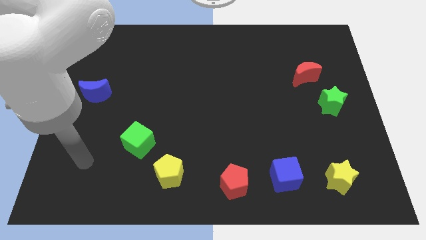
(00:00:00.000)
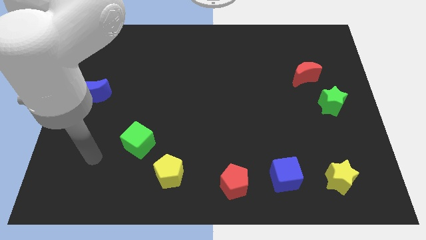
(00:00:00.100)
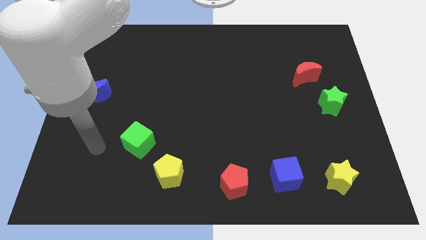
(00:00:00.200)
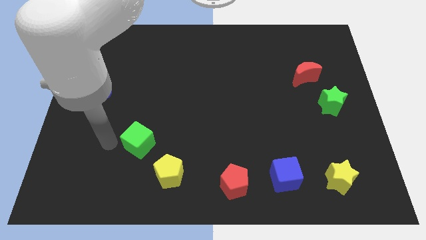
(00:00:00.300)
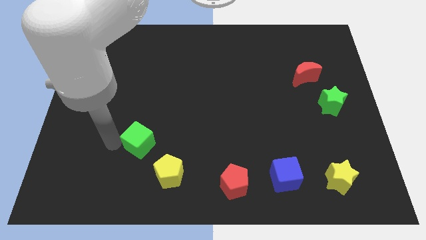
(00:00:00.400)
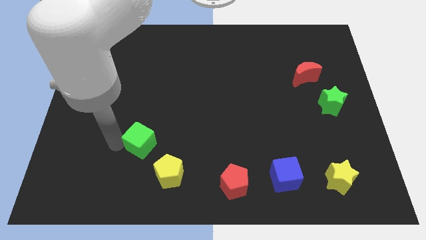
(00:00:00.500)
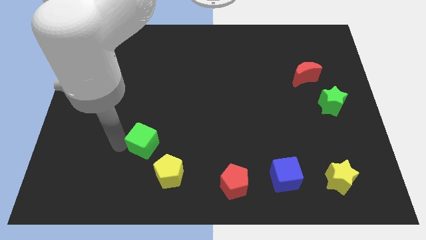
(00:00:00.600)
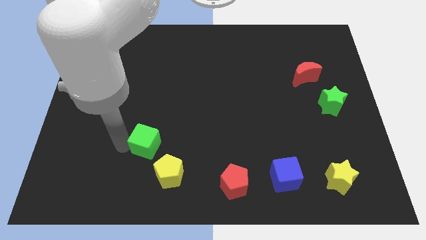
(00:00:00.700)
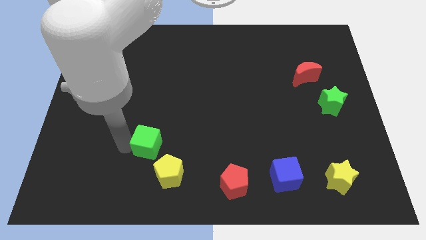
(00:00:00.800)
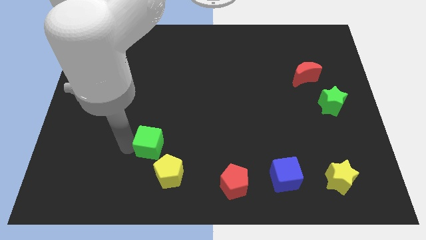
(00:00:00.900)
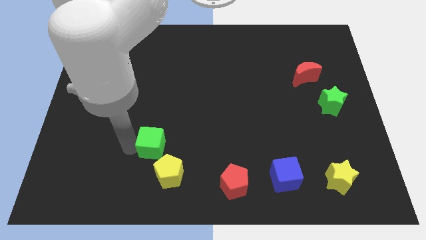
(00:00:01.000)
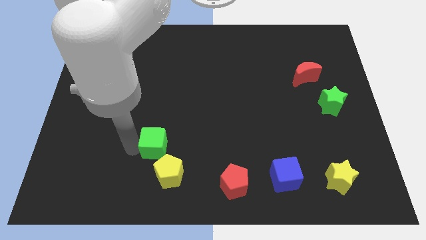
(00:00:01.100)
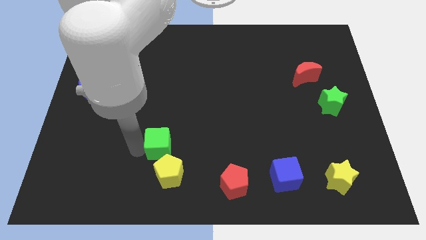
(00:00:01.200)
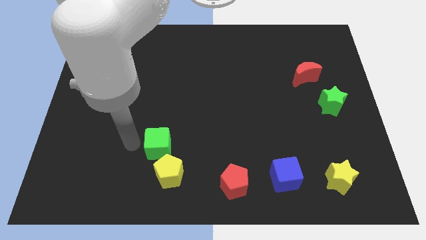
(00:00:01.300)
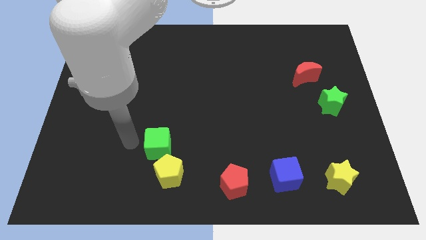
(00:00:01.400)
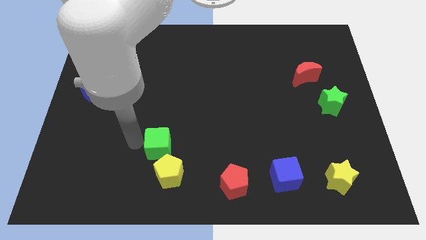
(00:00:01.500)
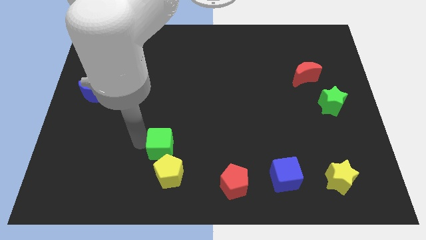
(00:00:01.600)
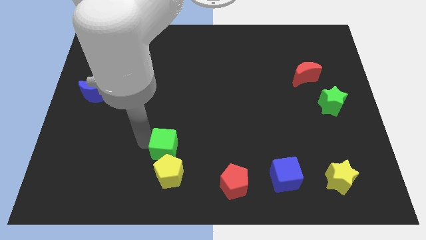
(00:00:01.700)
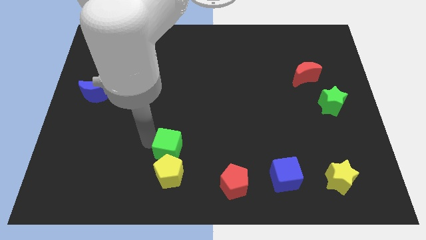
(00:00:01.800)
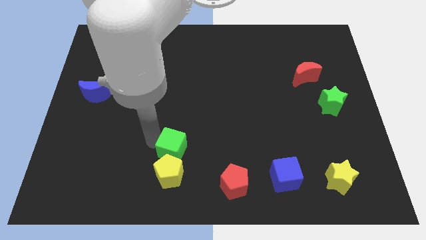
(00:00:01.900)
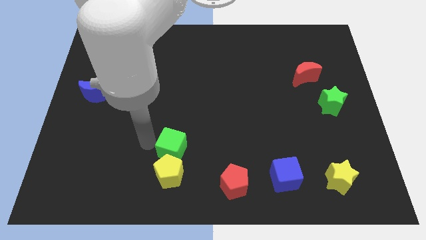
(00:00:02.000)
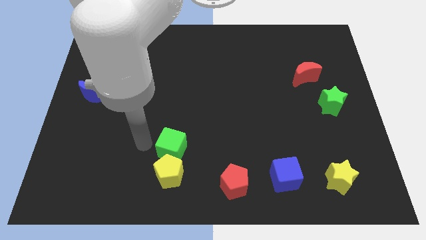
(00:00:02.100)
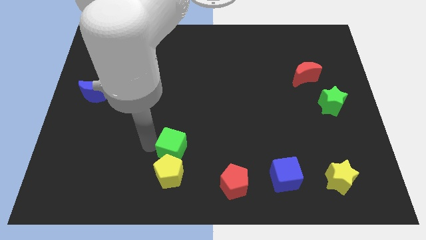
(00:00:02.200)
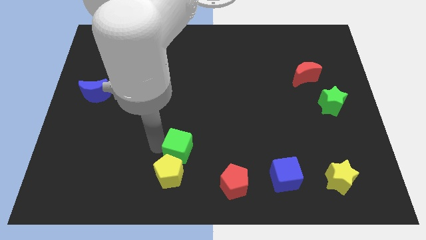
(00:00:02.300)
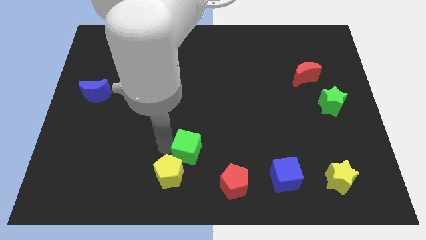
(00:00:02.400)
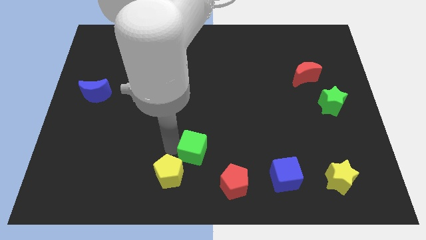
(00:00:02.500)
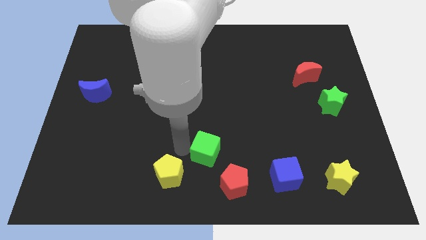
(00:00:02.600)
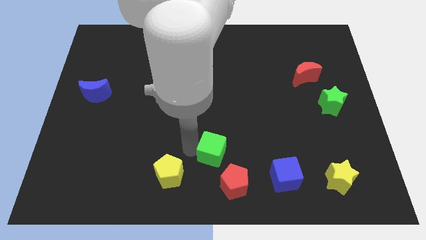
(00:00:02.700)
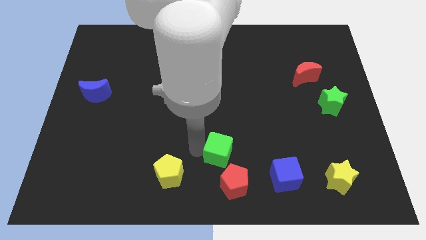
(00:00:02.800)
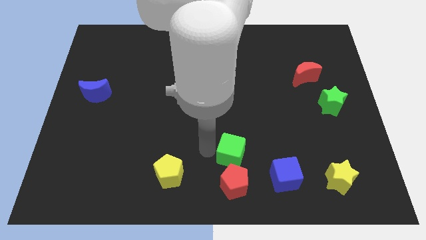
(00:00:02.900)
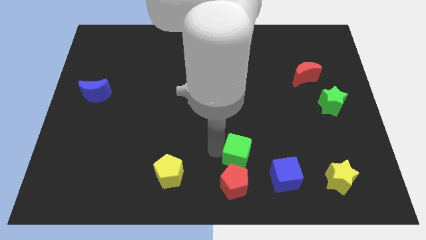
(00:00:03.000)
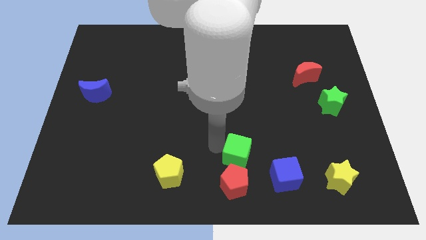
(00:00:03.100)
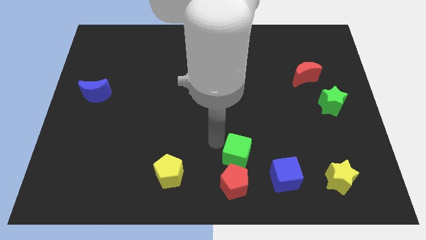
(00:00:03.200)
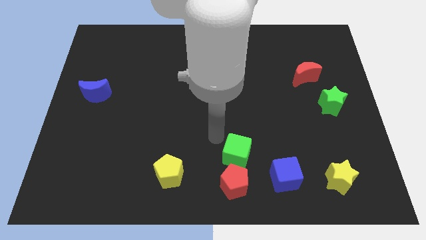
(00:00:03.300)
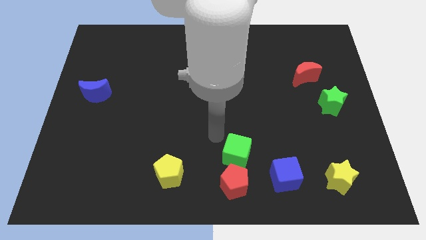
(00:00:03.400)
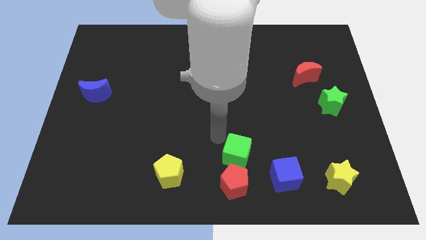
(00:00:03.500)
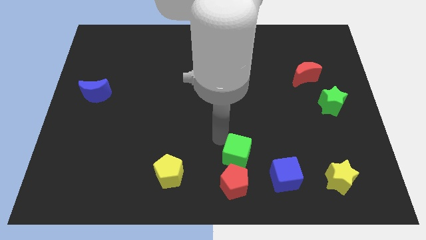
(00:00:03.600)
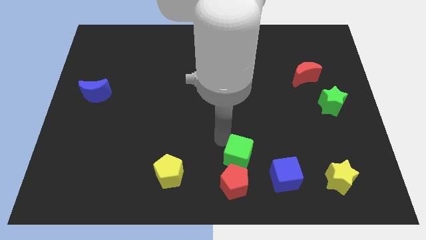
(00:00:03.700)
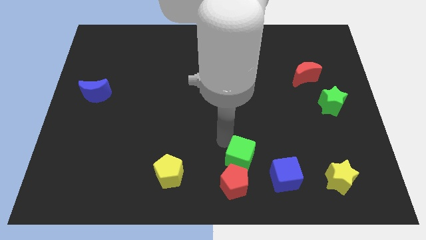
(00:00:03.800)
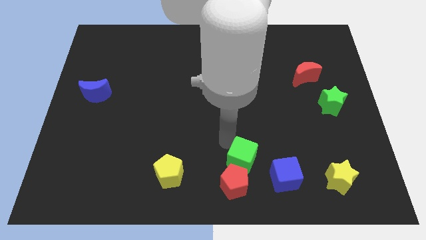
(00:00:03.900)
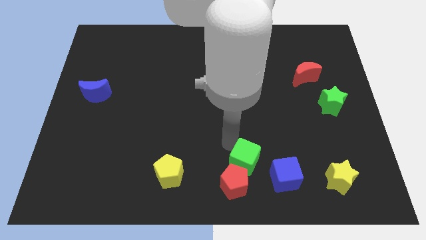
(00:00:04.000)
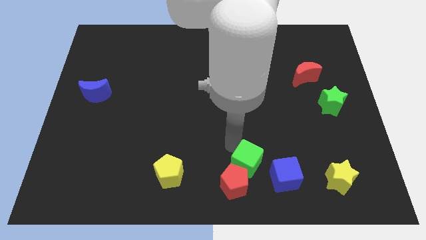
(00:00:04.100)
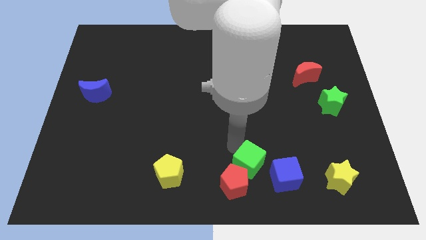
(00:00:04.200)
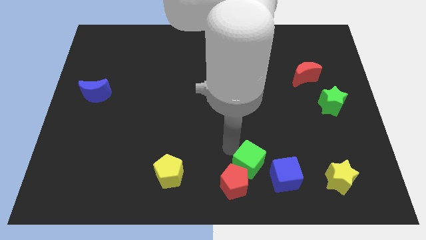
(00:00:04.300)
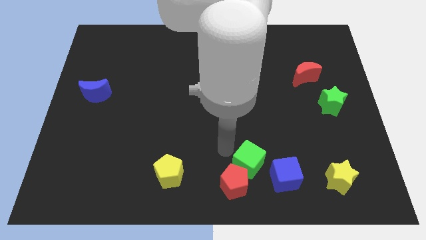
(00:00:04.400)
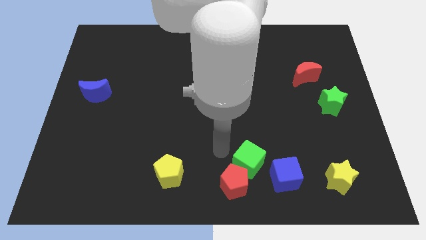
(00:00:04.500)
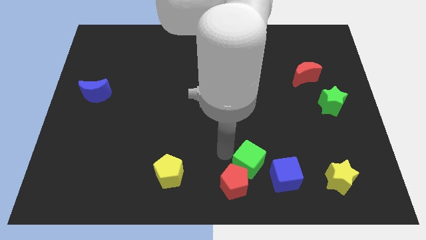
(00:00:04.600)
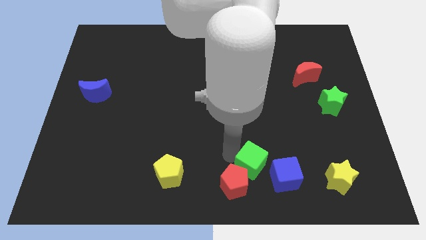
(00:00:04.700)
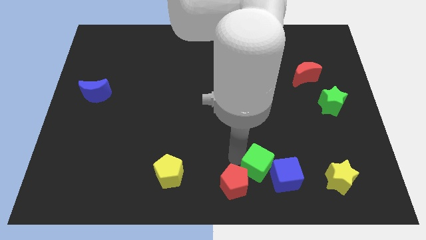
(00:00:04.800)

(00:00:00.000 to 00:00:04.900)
move the green cube next to the blue cube

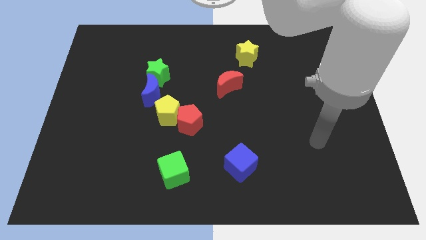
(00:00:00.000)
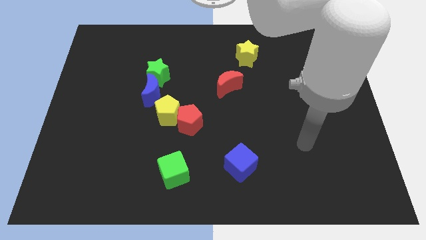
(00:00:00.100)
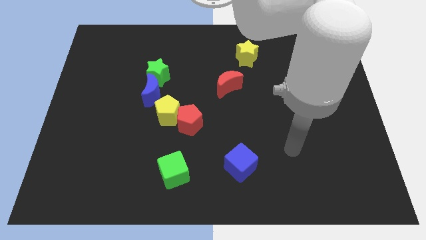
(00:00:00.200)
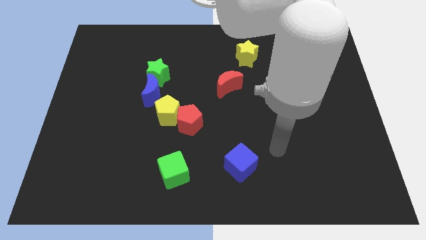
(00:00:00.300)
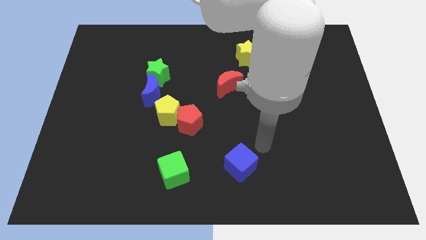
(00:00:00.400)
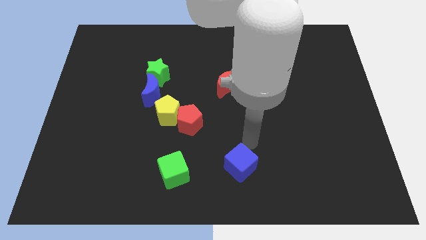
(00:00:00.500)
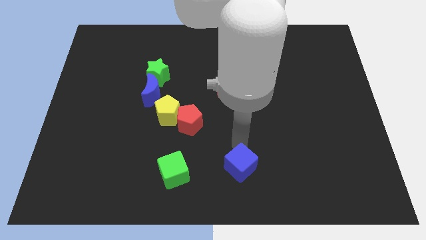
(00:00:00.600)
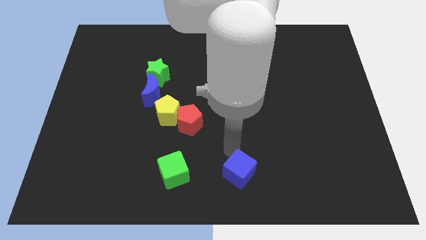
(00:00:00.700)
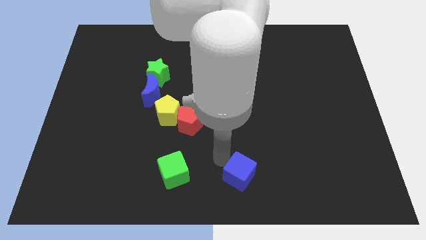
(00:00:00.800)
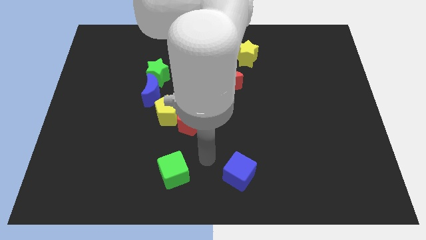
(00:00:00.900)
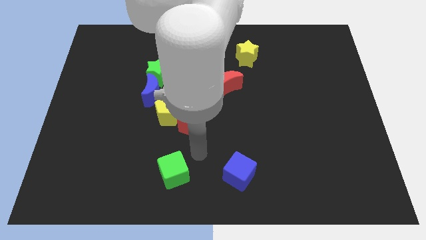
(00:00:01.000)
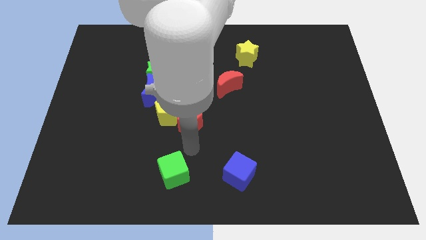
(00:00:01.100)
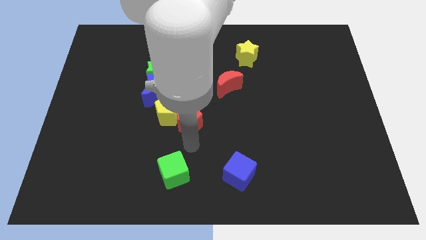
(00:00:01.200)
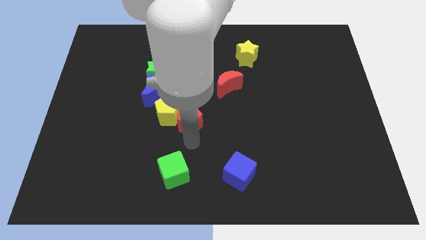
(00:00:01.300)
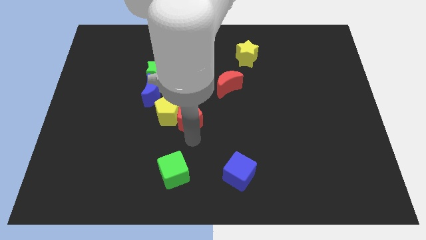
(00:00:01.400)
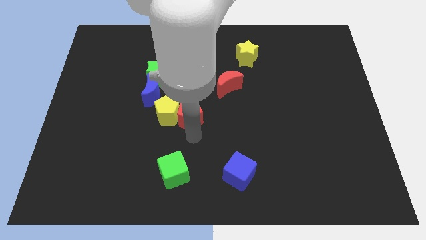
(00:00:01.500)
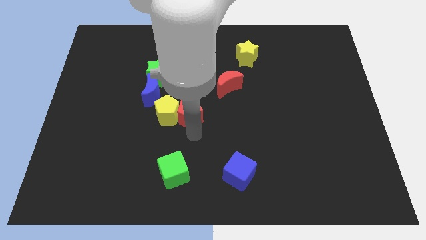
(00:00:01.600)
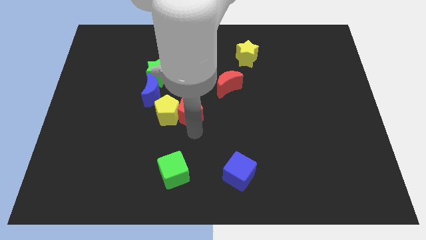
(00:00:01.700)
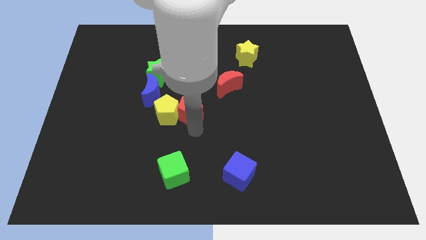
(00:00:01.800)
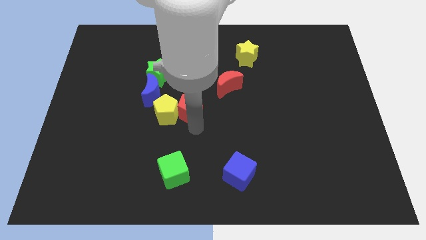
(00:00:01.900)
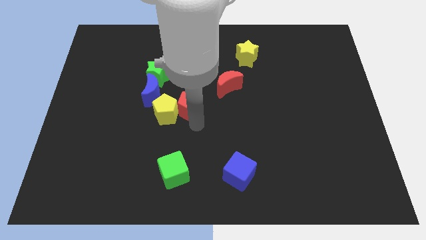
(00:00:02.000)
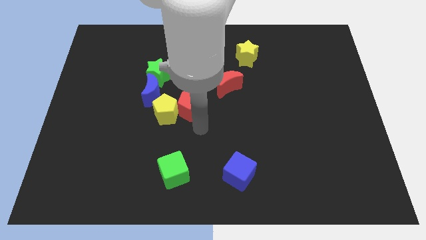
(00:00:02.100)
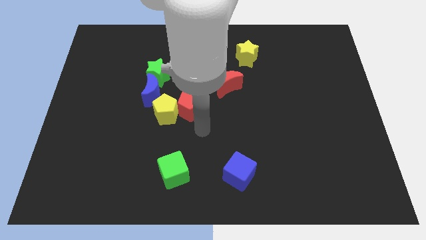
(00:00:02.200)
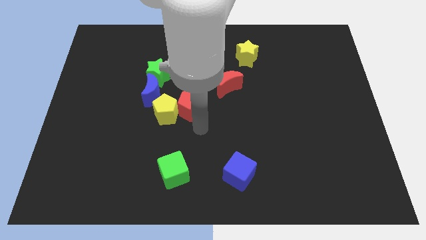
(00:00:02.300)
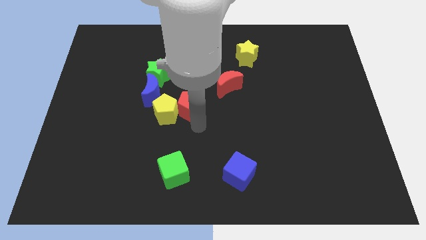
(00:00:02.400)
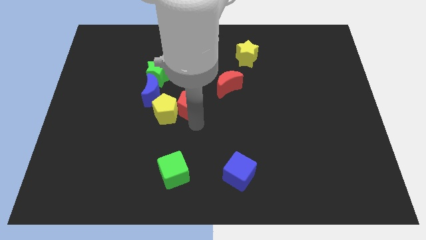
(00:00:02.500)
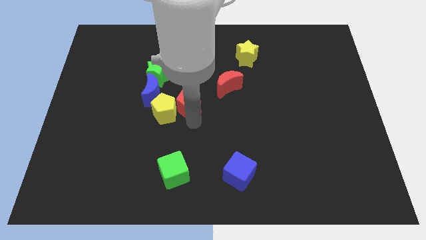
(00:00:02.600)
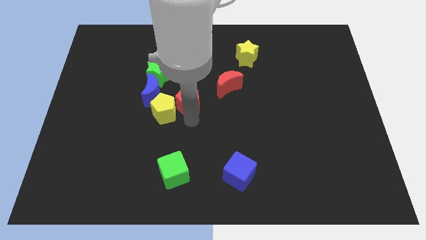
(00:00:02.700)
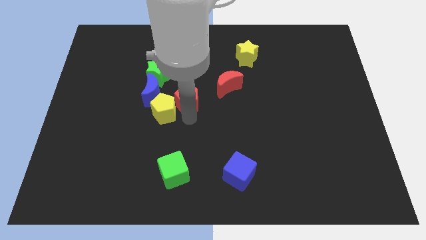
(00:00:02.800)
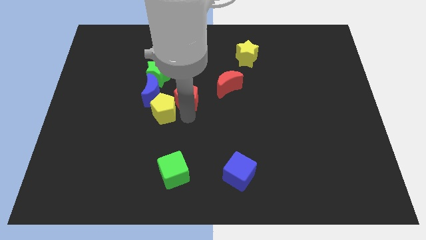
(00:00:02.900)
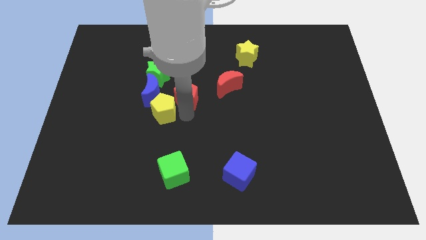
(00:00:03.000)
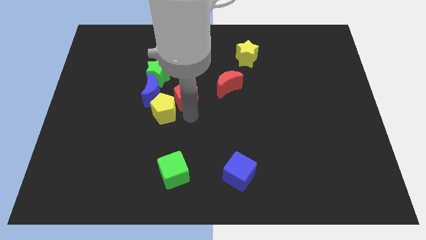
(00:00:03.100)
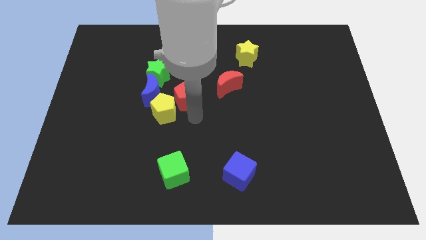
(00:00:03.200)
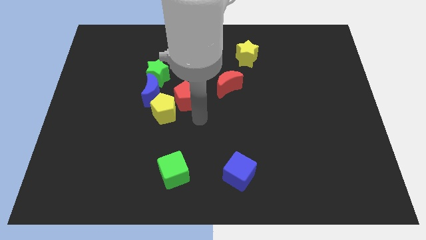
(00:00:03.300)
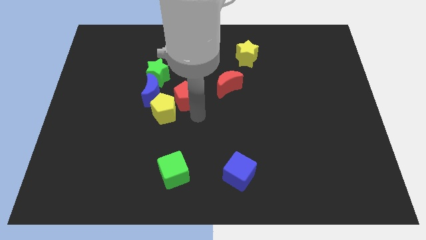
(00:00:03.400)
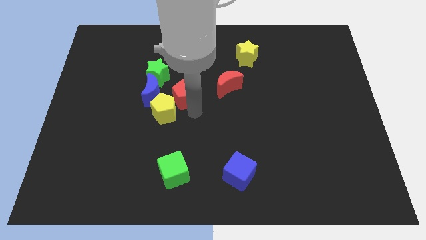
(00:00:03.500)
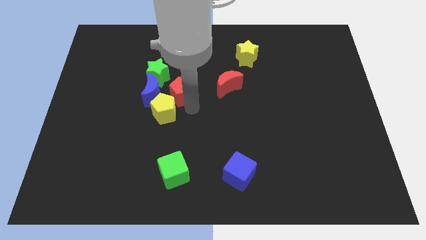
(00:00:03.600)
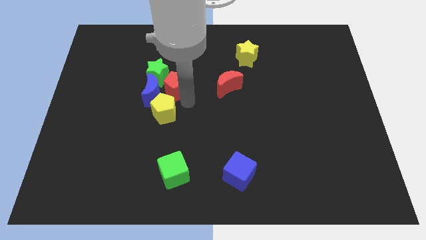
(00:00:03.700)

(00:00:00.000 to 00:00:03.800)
slide the red pentagon towards the green star
